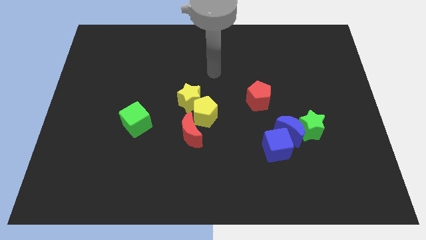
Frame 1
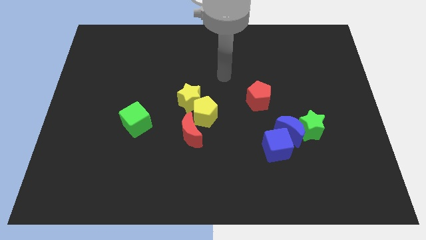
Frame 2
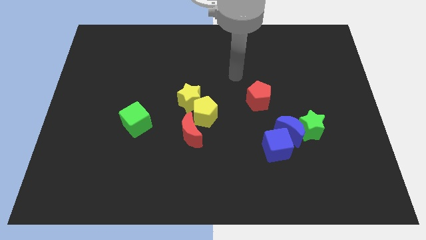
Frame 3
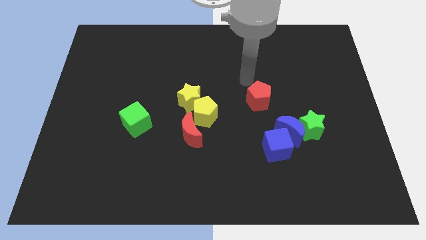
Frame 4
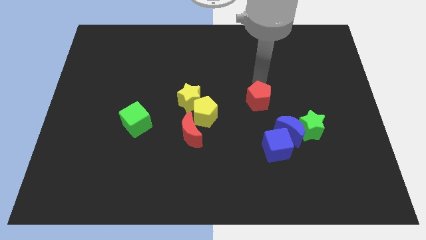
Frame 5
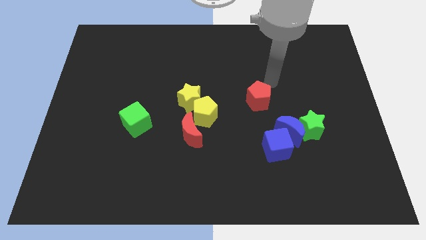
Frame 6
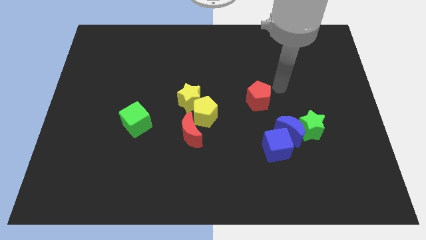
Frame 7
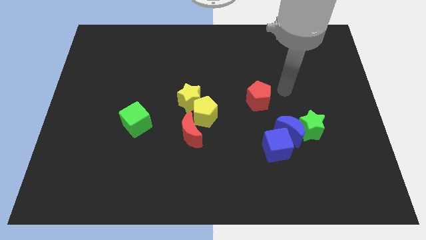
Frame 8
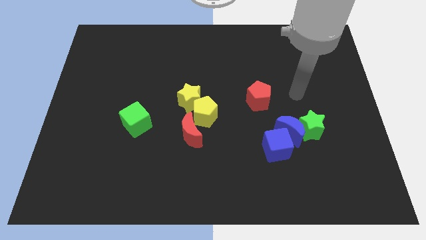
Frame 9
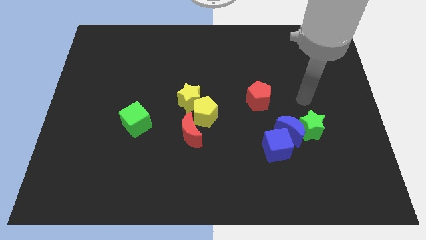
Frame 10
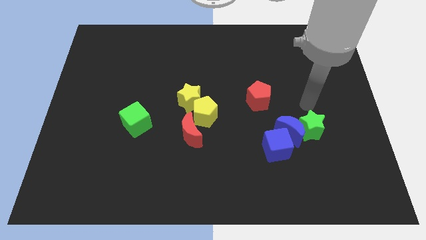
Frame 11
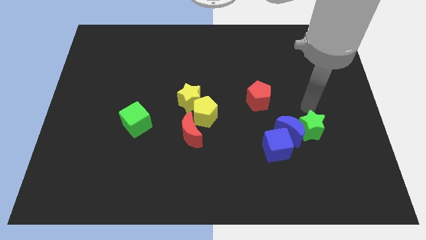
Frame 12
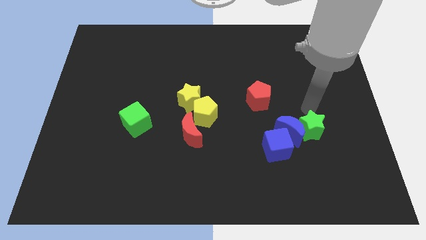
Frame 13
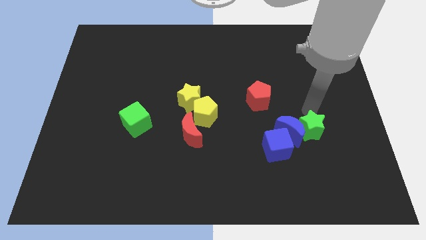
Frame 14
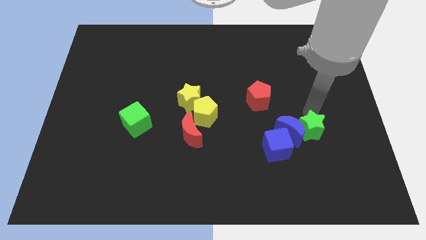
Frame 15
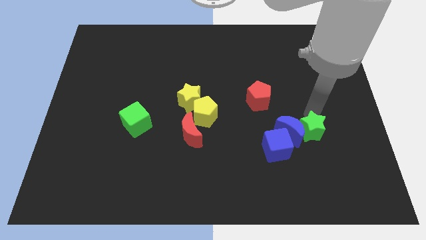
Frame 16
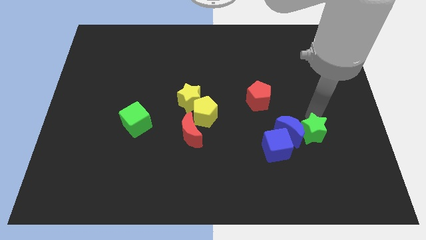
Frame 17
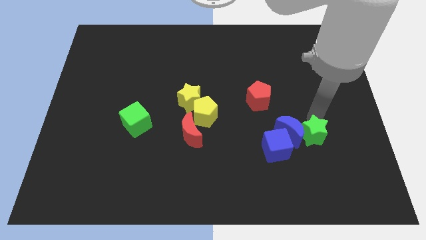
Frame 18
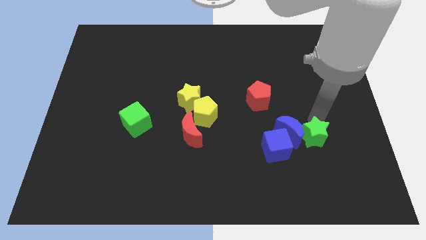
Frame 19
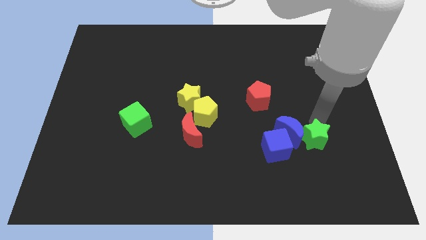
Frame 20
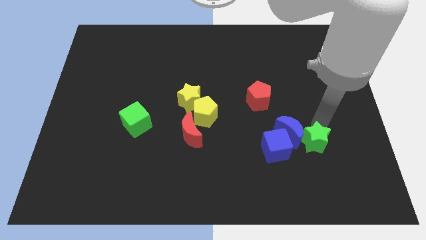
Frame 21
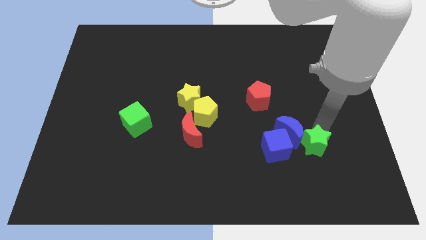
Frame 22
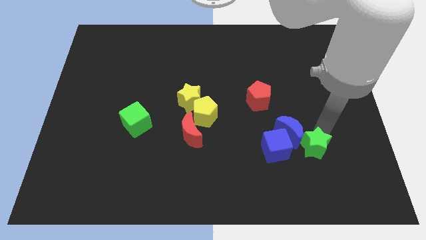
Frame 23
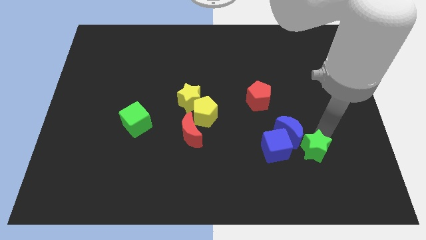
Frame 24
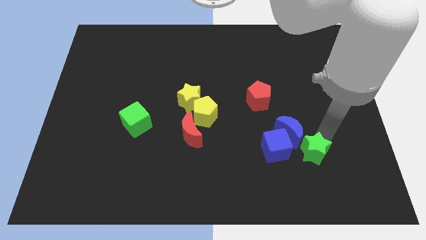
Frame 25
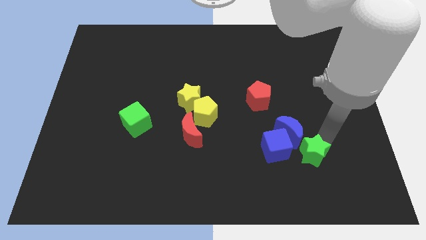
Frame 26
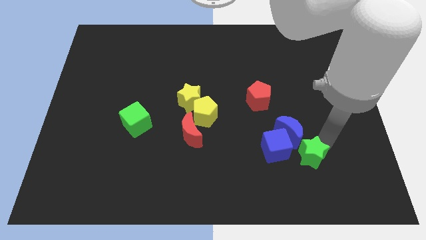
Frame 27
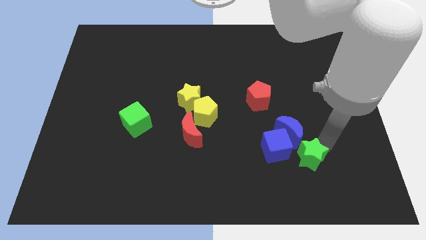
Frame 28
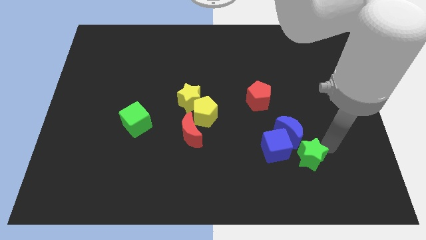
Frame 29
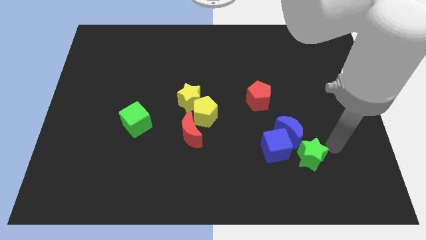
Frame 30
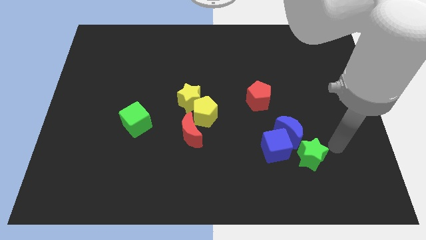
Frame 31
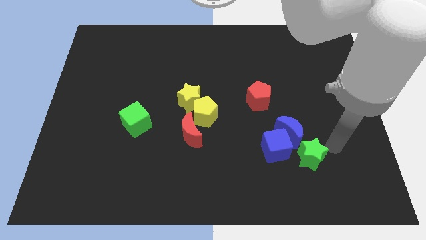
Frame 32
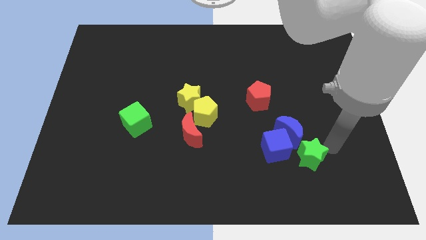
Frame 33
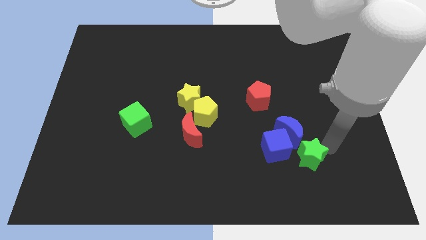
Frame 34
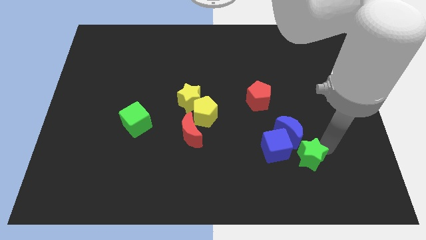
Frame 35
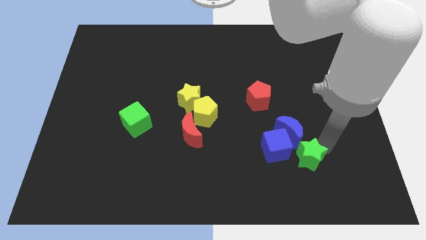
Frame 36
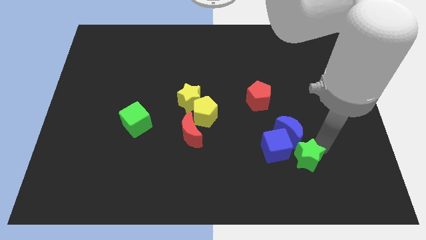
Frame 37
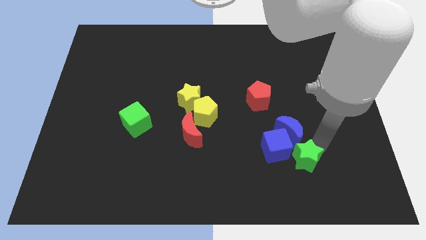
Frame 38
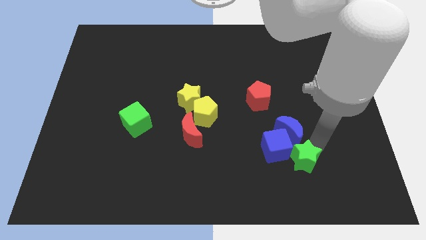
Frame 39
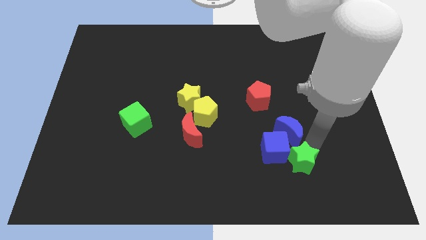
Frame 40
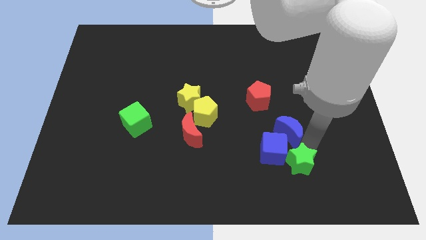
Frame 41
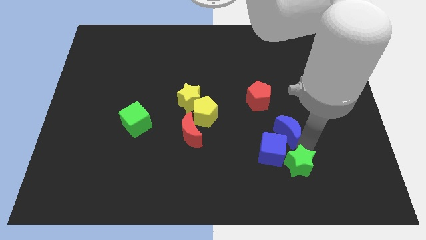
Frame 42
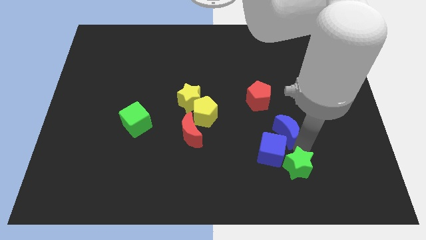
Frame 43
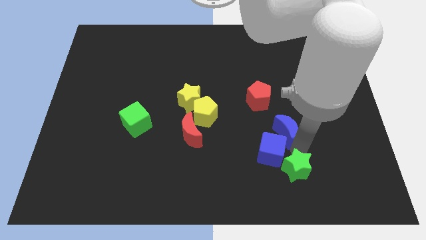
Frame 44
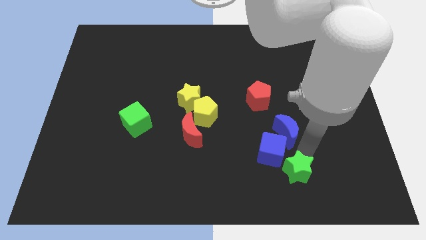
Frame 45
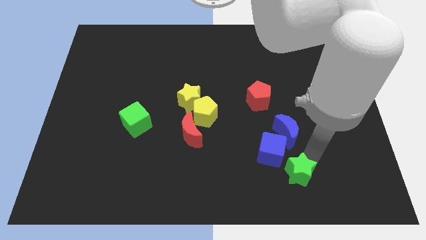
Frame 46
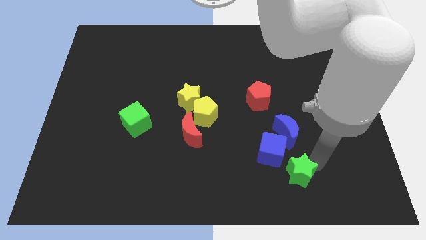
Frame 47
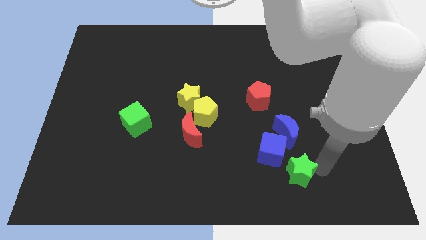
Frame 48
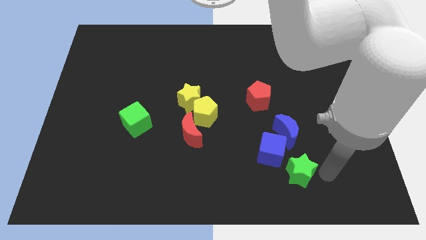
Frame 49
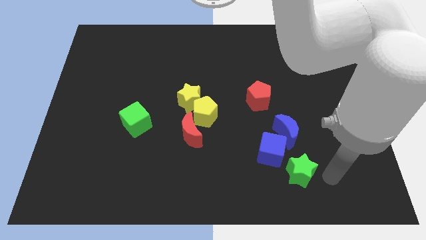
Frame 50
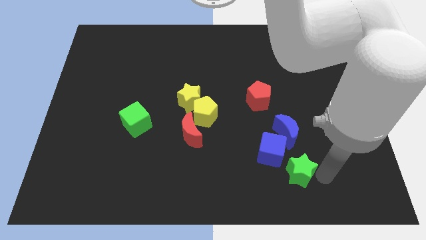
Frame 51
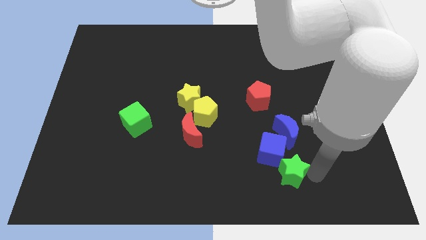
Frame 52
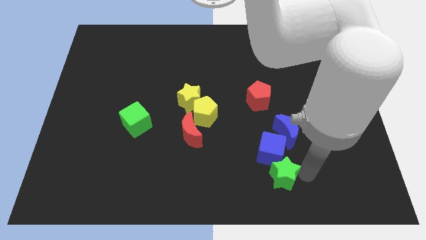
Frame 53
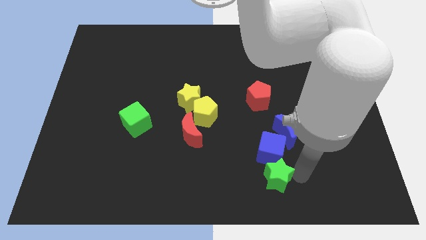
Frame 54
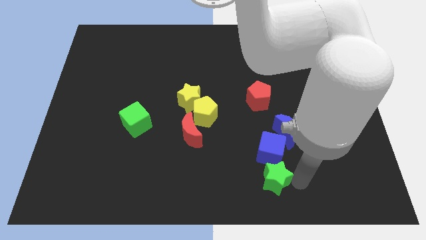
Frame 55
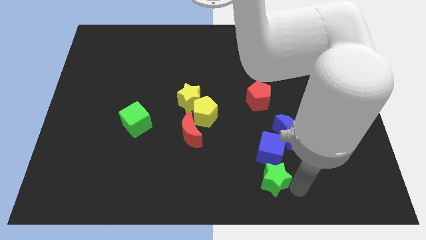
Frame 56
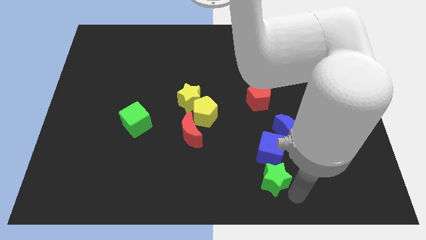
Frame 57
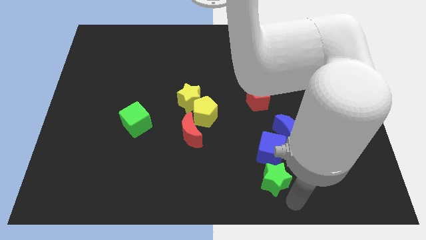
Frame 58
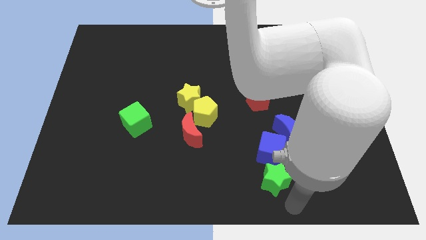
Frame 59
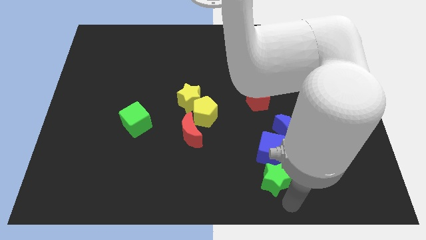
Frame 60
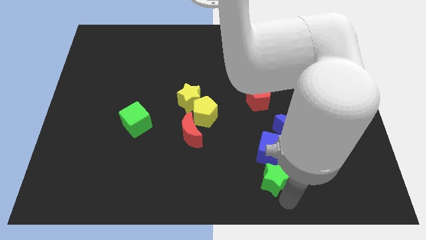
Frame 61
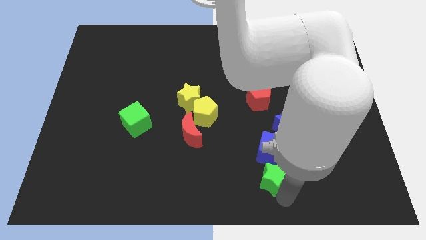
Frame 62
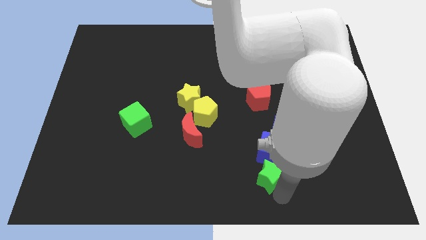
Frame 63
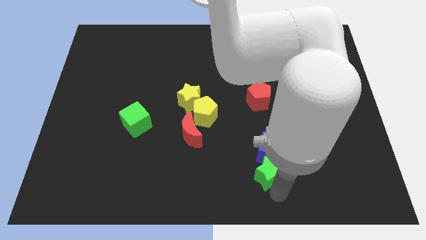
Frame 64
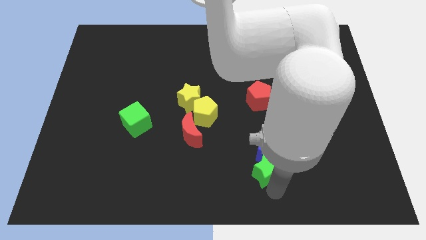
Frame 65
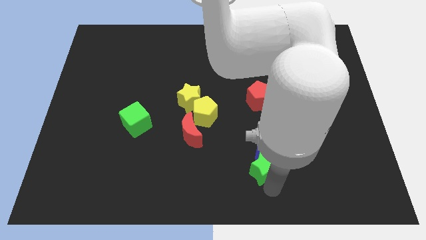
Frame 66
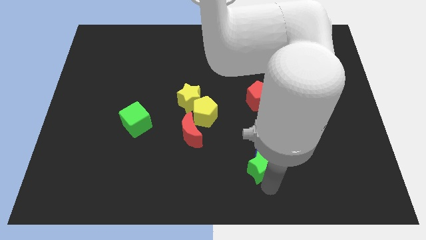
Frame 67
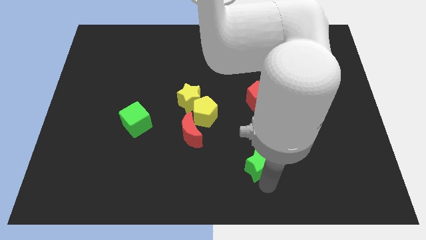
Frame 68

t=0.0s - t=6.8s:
slide the green star to the left a little

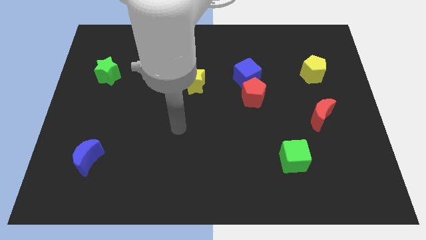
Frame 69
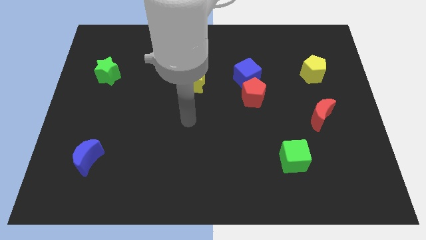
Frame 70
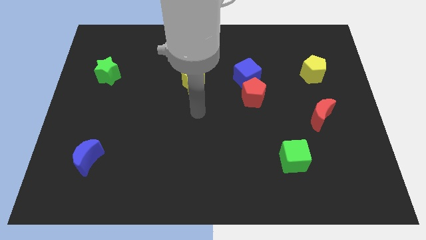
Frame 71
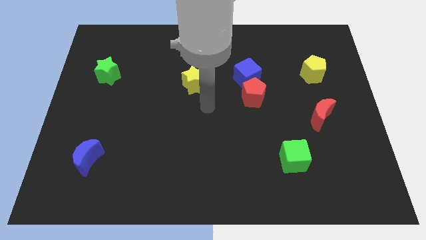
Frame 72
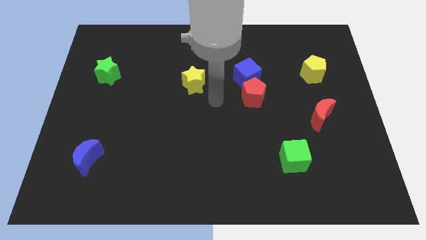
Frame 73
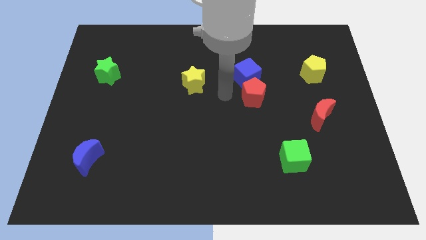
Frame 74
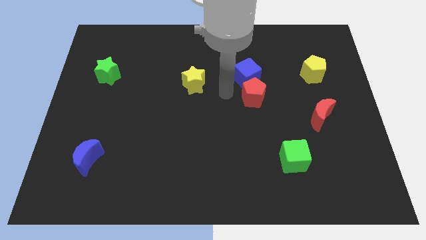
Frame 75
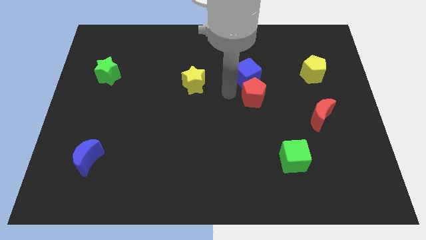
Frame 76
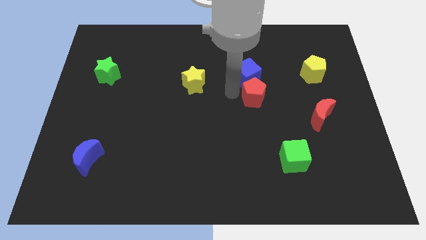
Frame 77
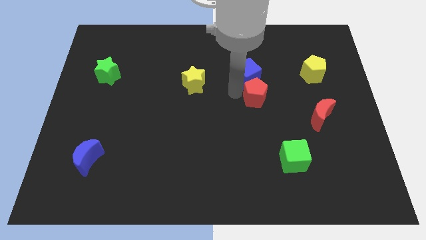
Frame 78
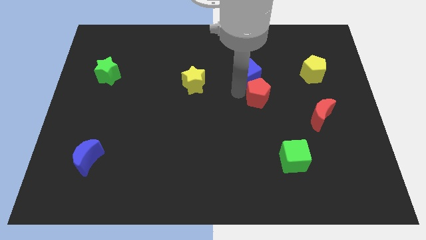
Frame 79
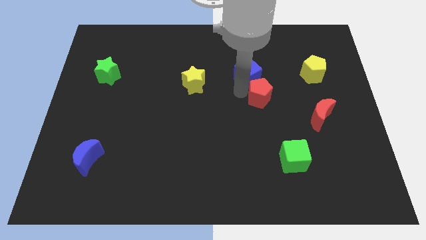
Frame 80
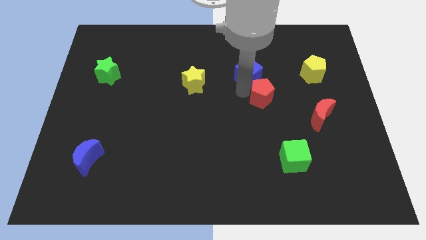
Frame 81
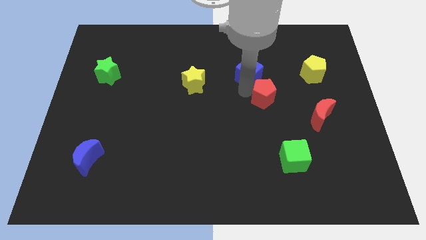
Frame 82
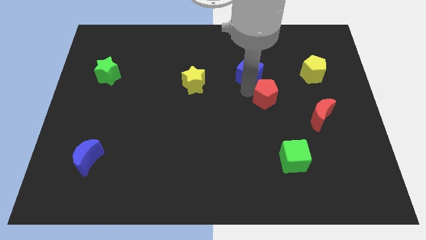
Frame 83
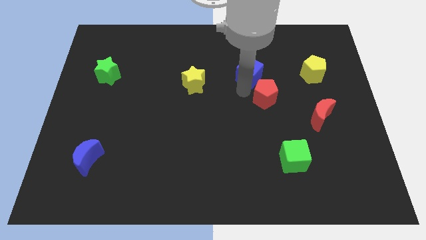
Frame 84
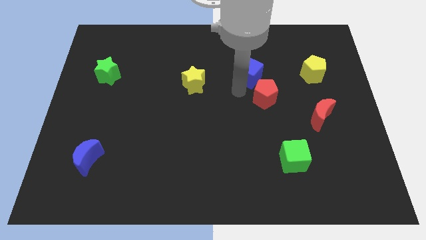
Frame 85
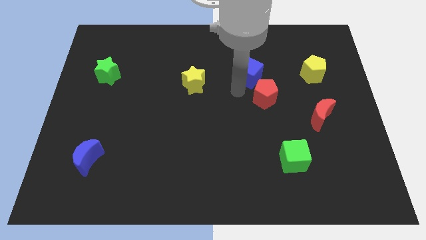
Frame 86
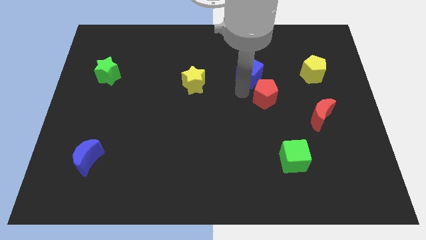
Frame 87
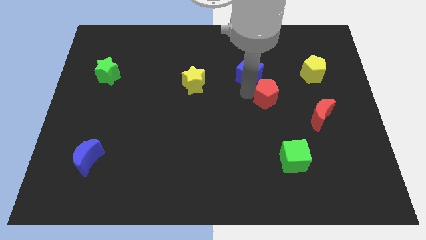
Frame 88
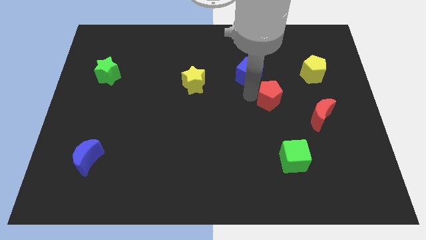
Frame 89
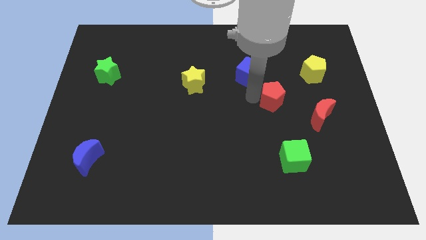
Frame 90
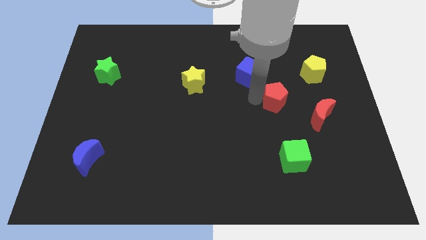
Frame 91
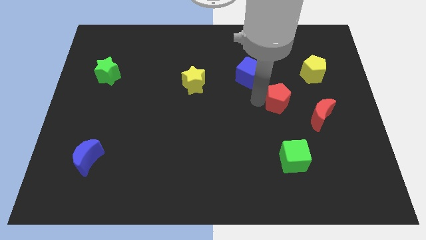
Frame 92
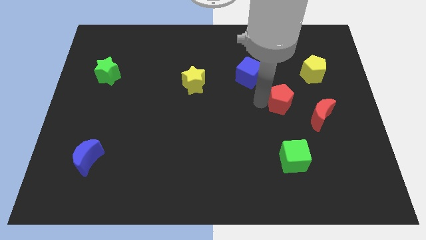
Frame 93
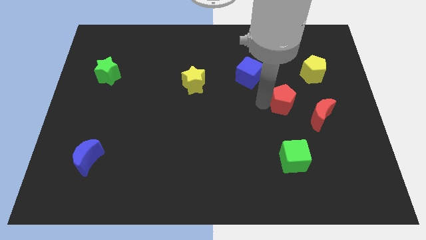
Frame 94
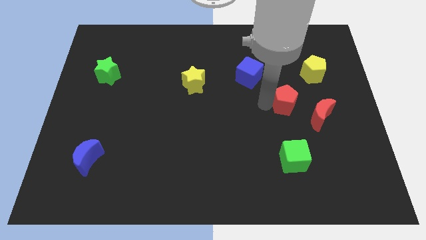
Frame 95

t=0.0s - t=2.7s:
slide the red pentagon right a little bit
